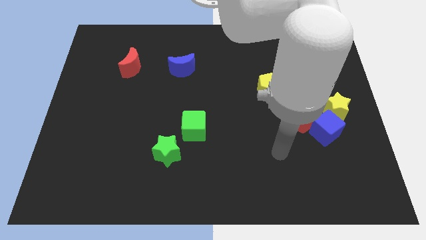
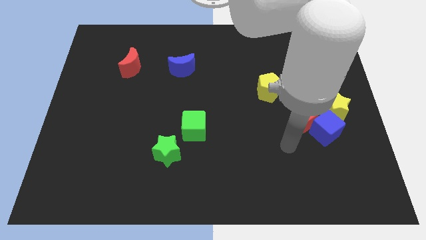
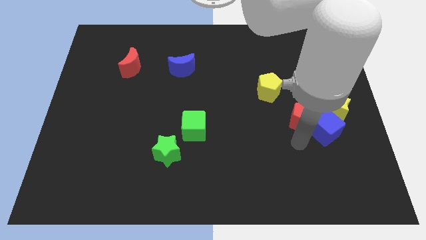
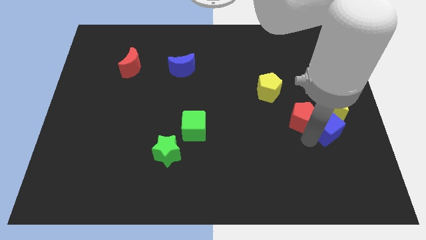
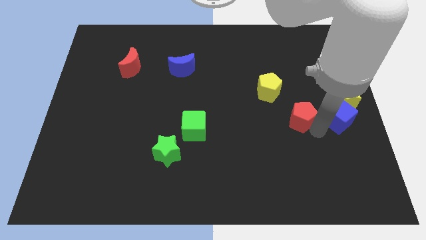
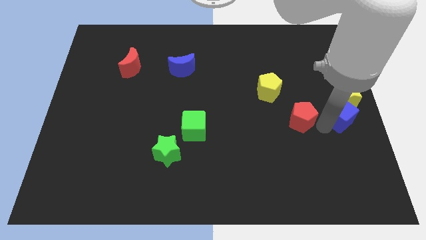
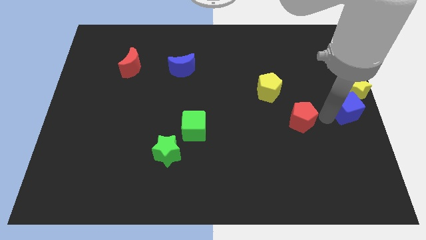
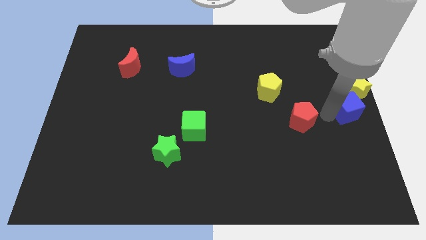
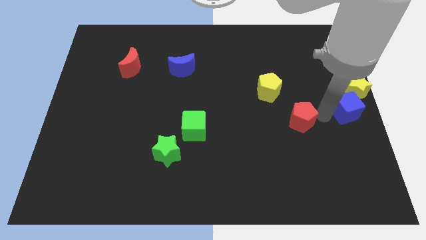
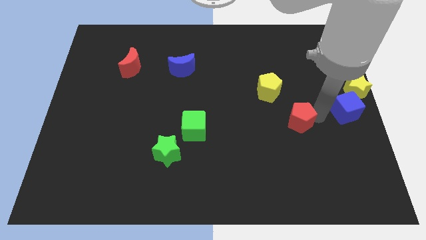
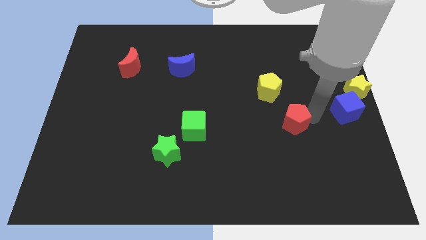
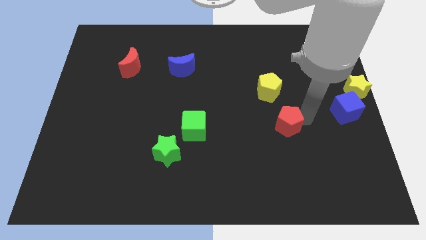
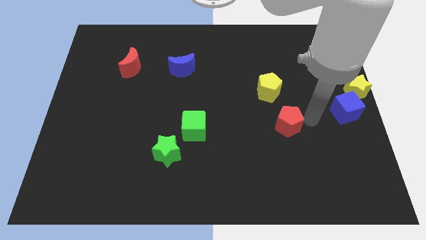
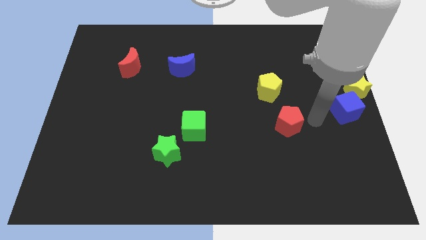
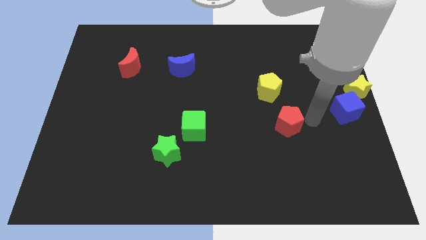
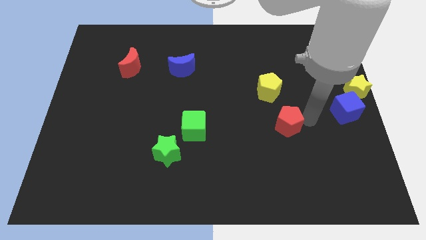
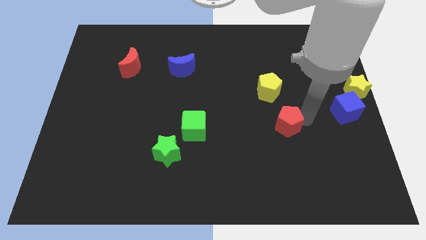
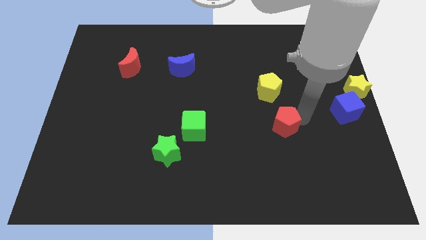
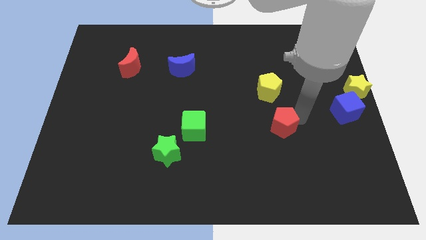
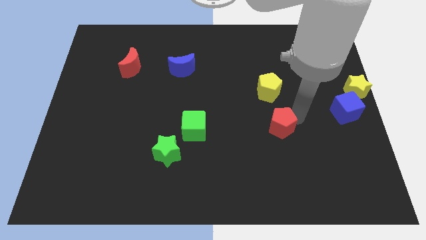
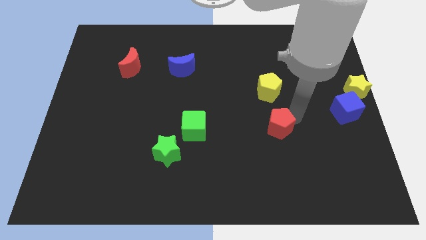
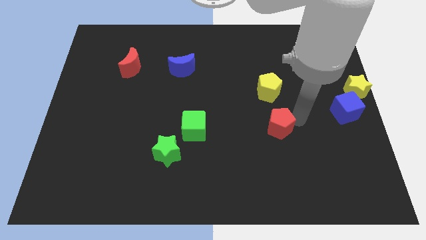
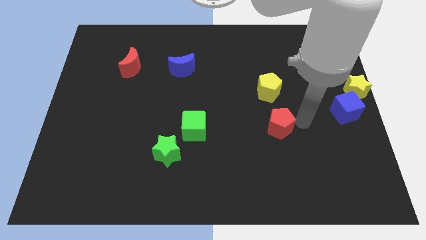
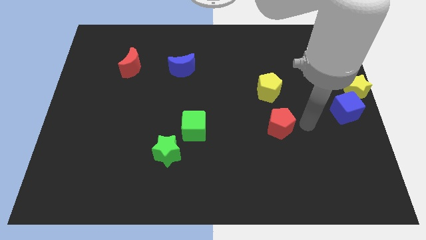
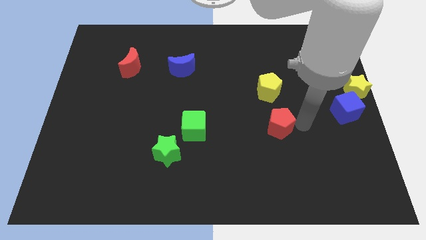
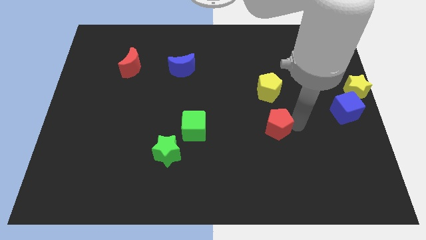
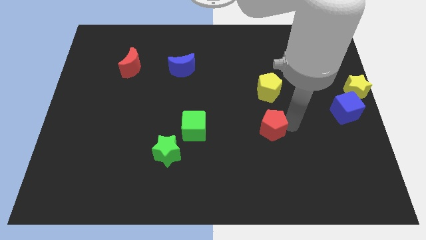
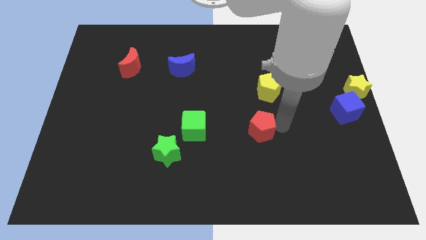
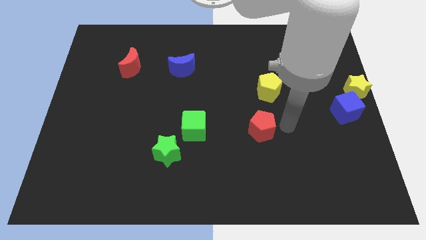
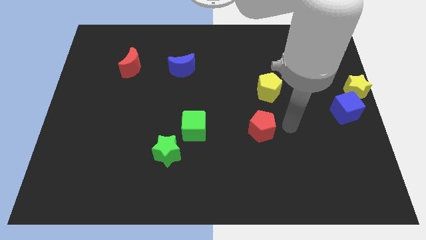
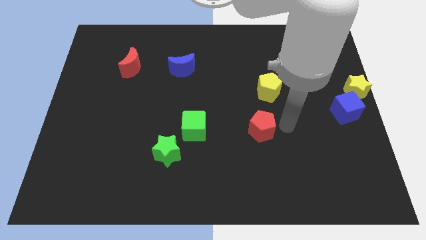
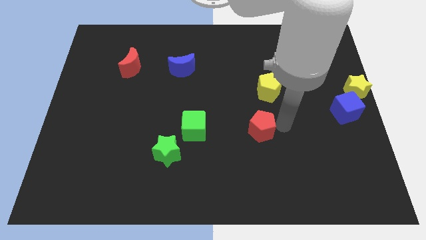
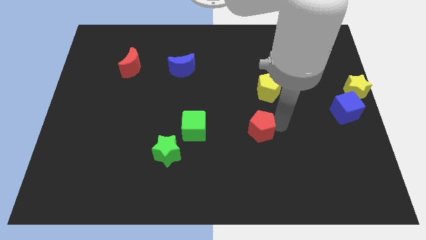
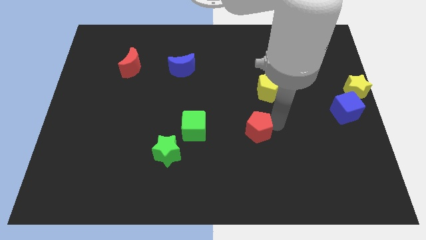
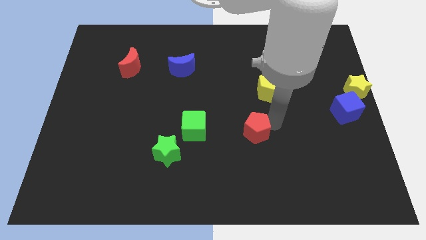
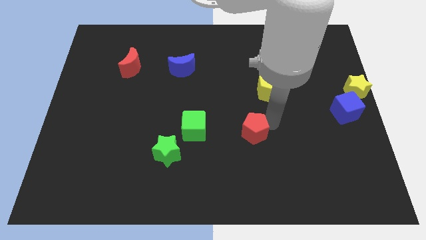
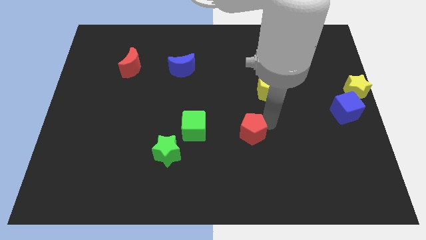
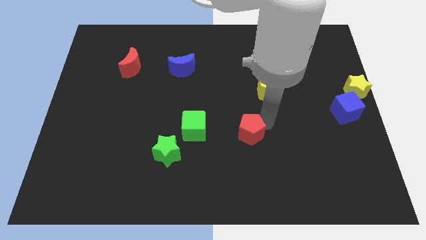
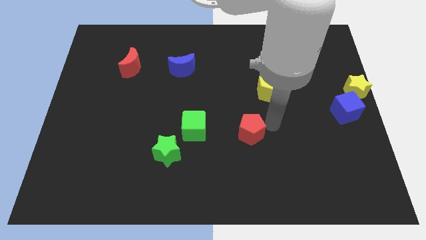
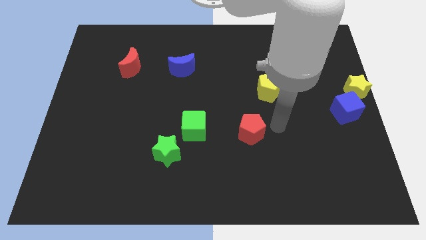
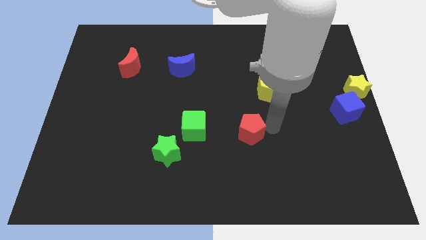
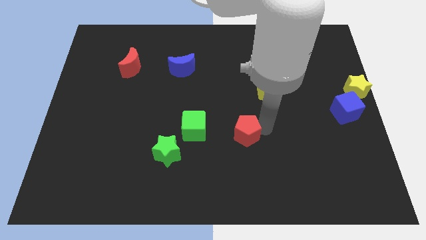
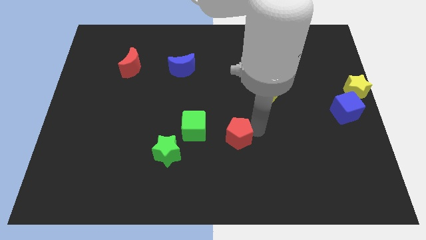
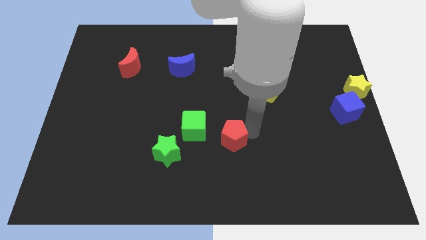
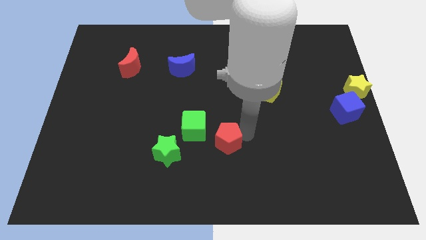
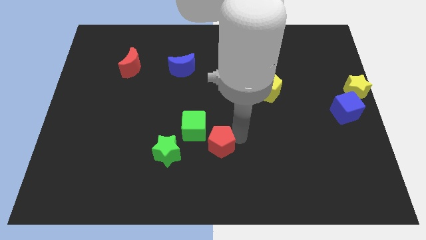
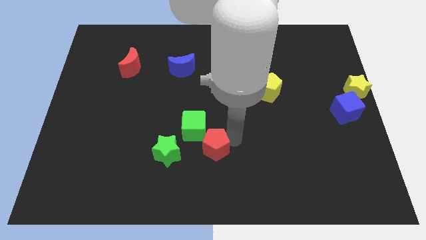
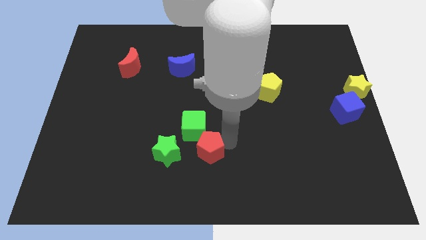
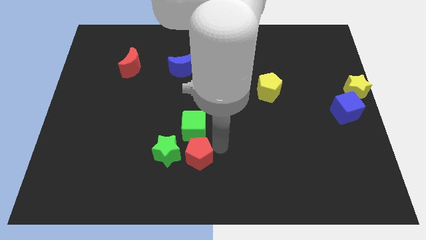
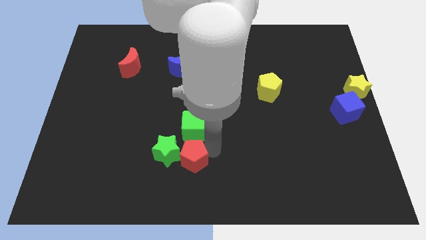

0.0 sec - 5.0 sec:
push the red pentagon next to the green star

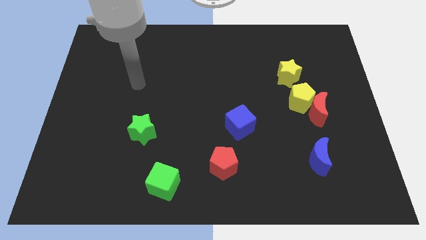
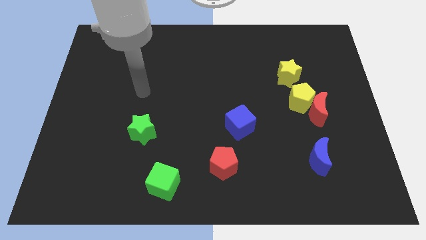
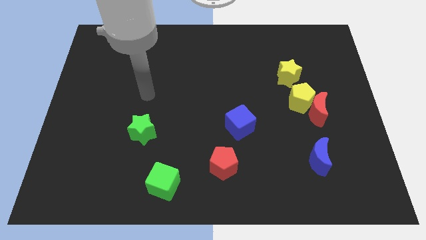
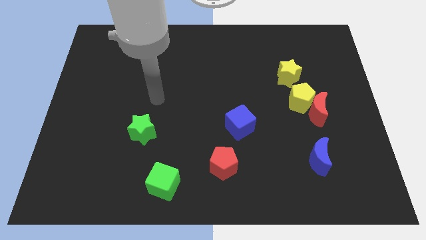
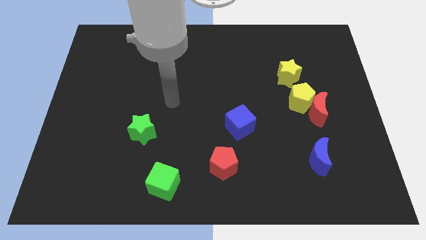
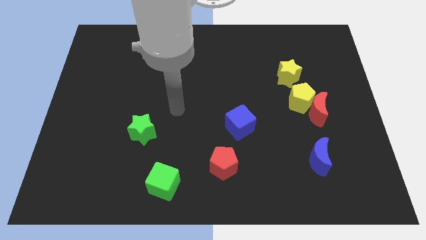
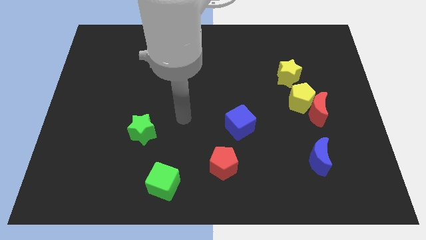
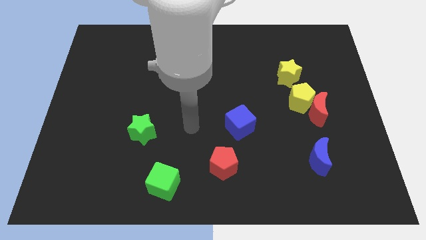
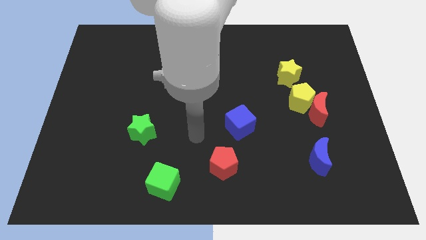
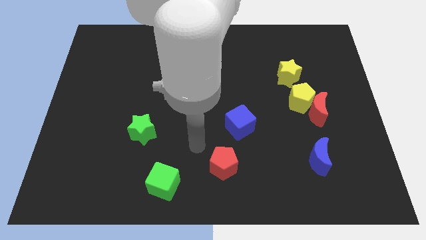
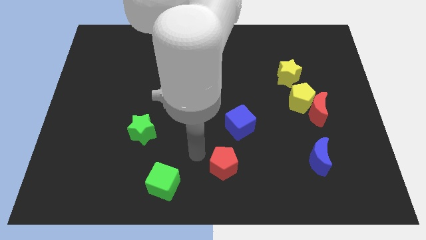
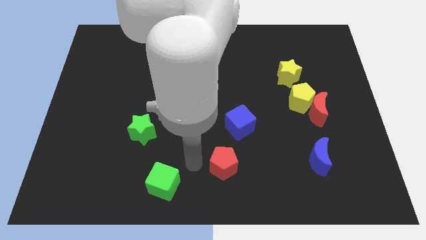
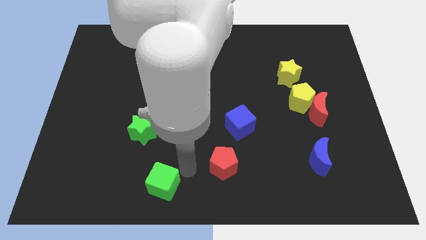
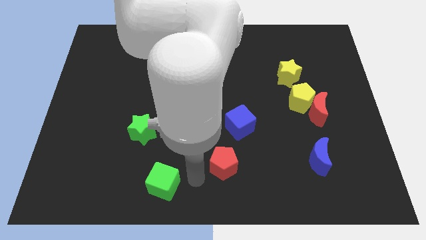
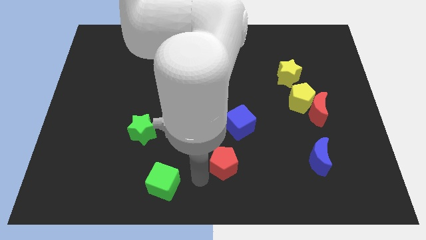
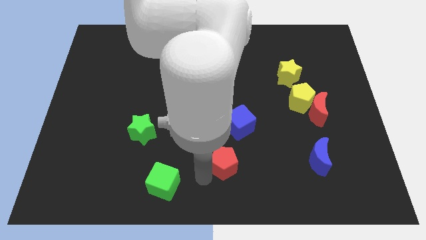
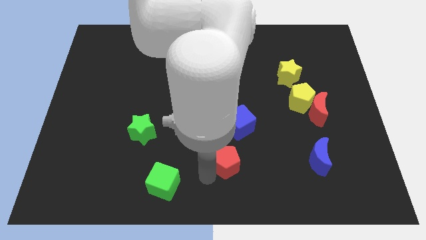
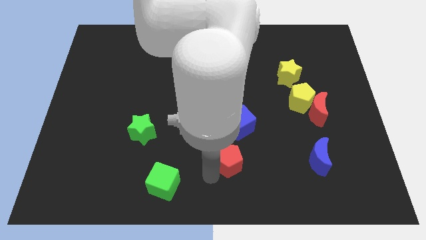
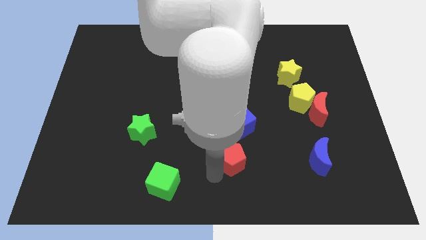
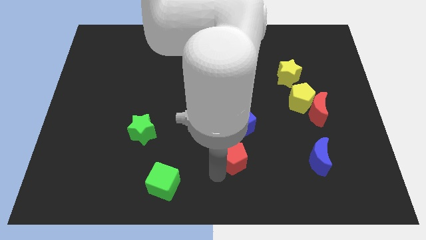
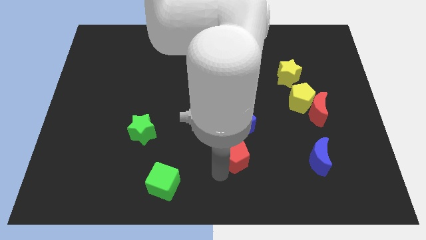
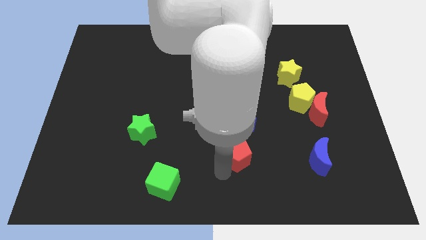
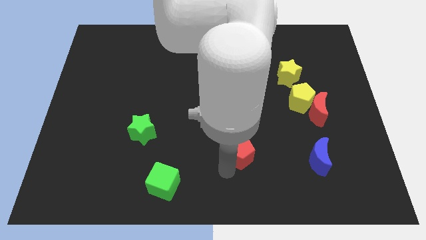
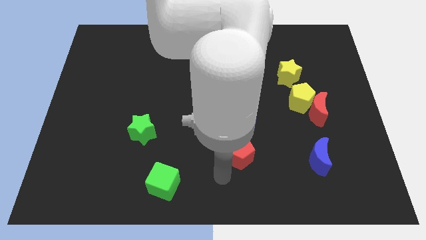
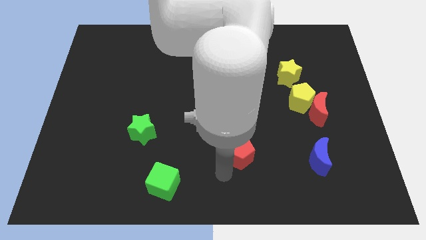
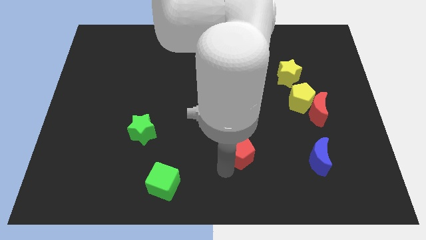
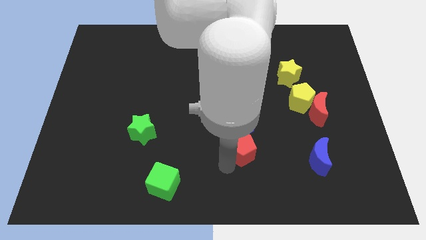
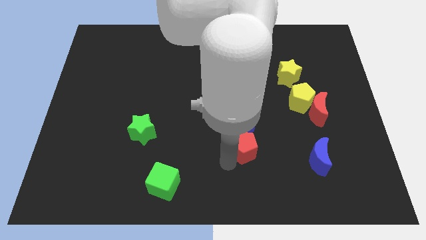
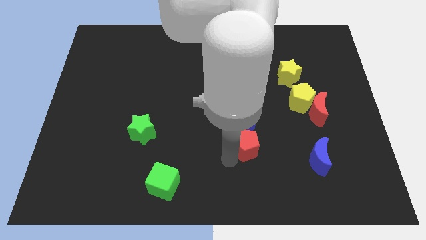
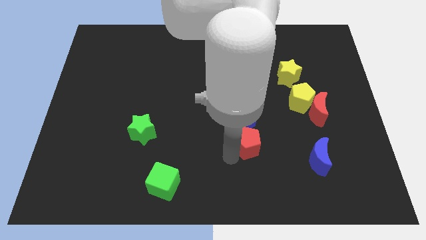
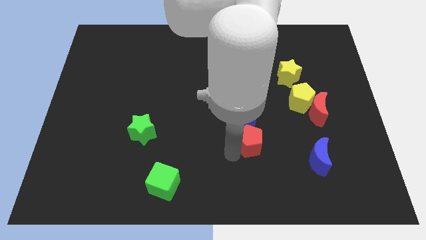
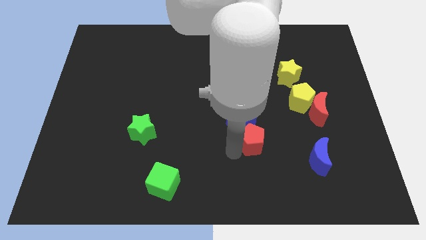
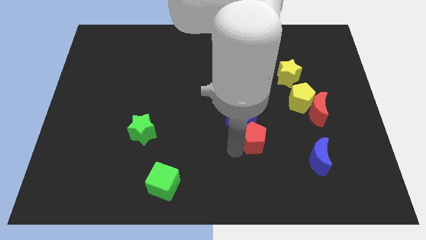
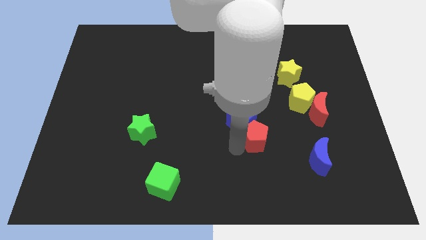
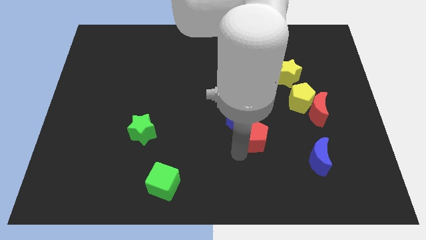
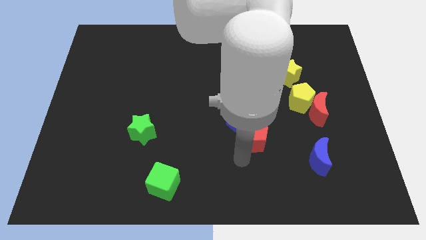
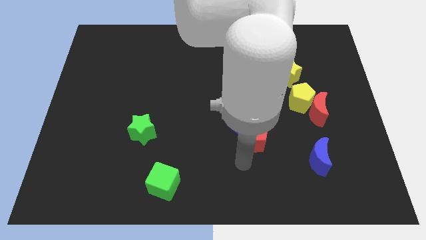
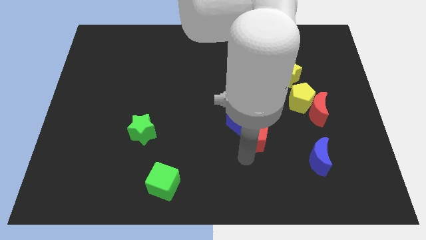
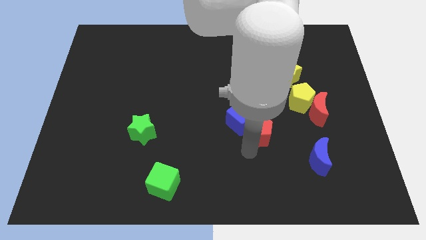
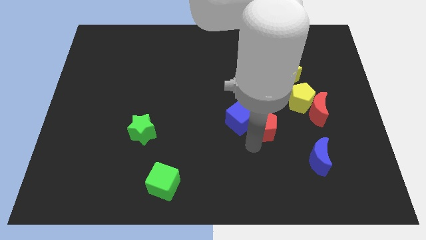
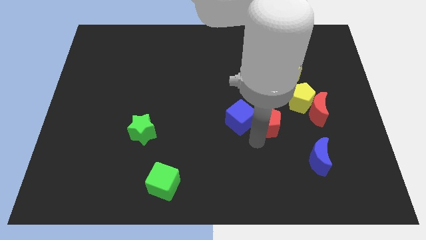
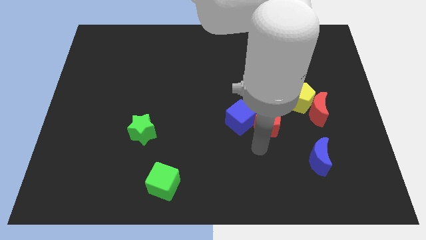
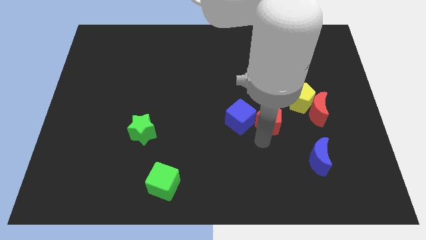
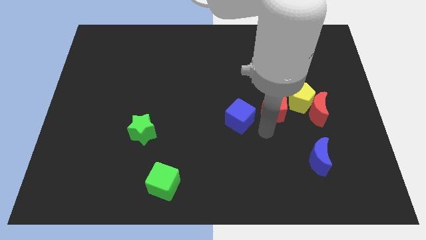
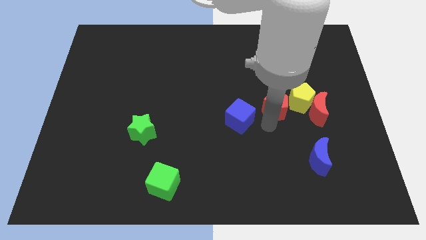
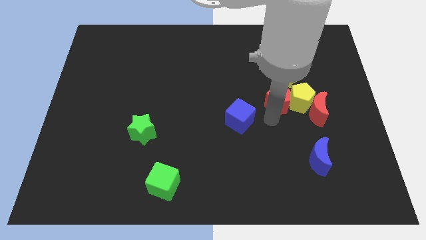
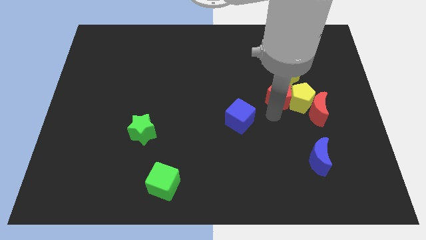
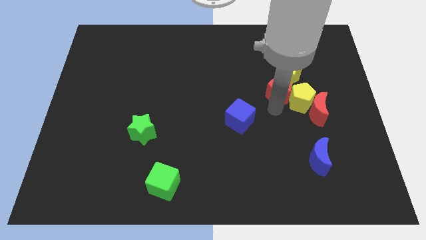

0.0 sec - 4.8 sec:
move the red pentagon towards the yellow star
